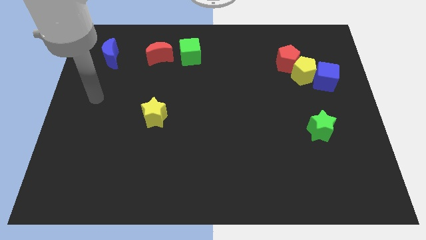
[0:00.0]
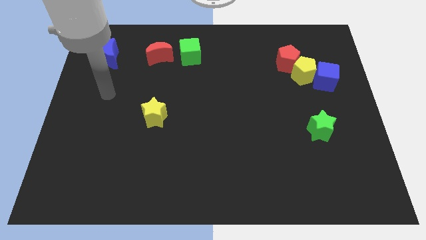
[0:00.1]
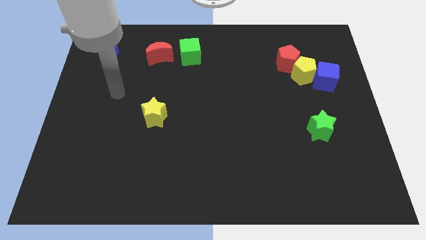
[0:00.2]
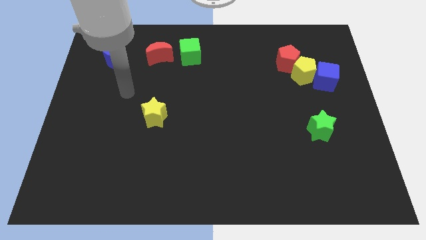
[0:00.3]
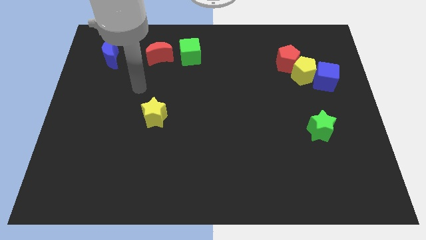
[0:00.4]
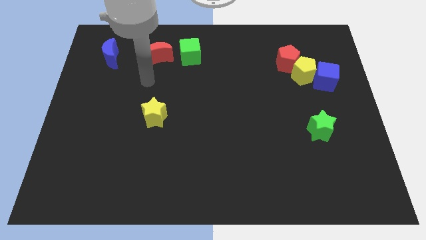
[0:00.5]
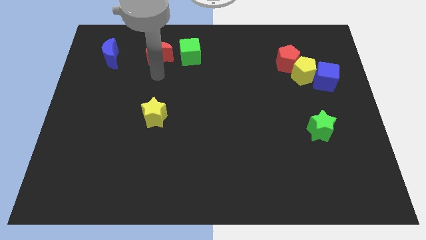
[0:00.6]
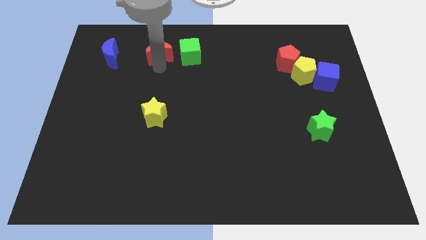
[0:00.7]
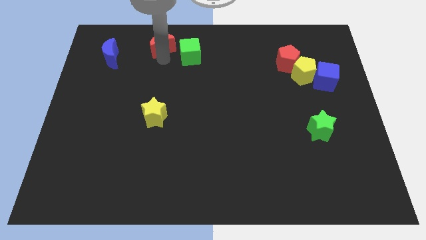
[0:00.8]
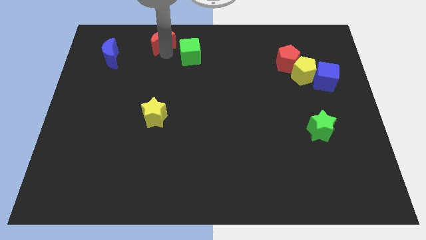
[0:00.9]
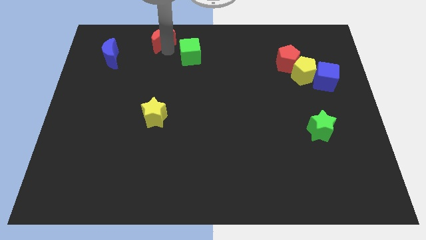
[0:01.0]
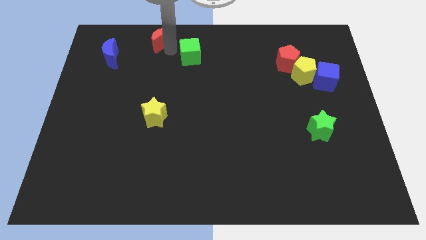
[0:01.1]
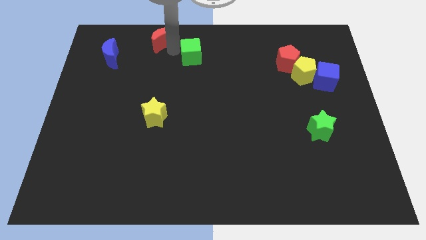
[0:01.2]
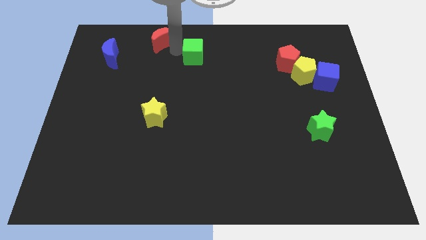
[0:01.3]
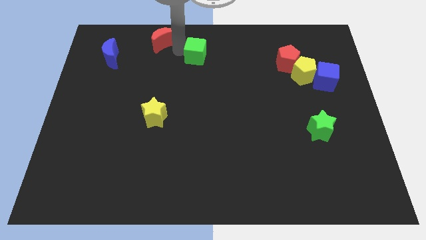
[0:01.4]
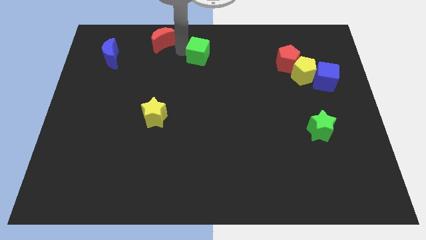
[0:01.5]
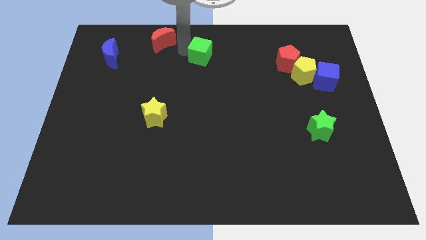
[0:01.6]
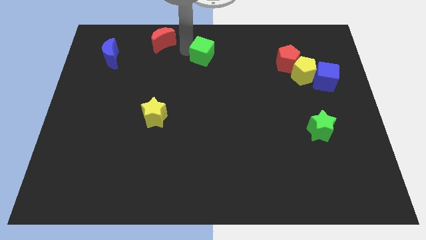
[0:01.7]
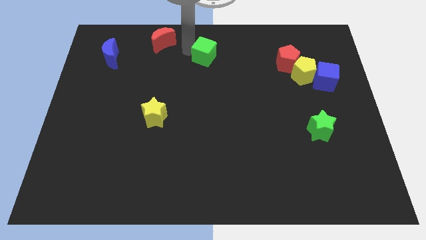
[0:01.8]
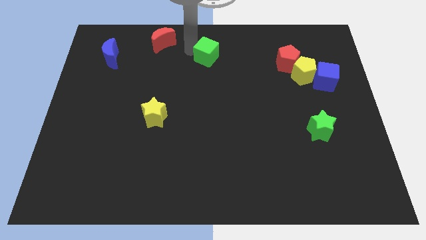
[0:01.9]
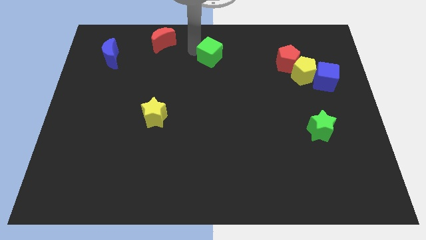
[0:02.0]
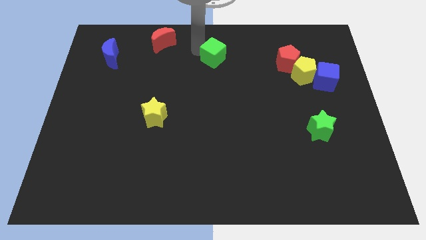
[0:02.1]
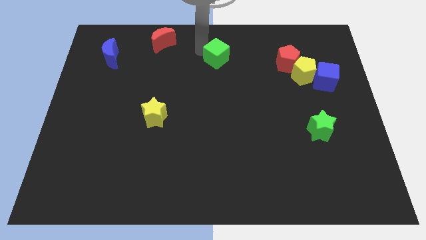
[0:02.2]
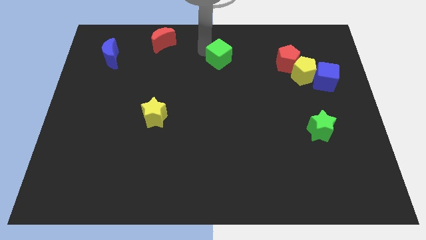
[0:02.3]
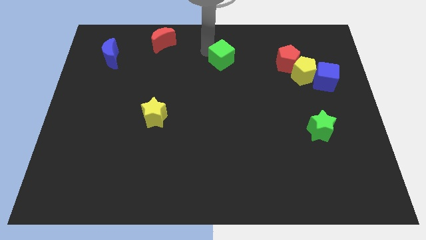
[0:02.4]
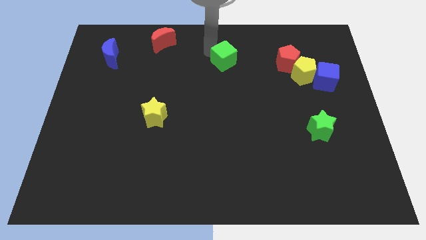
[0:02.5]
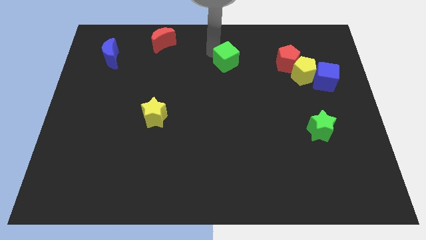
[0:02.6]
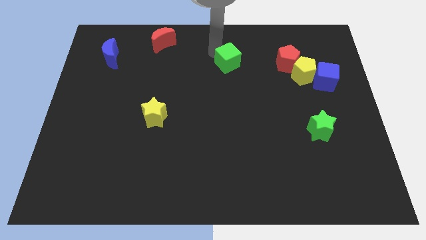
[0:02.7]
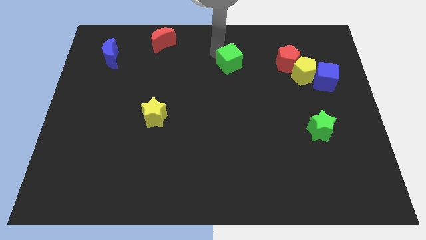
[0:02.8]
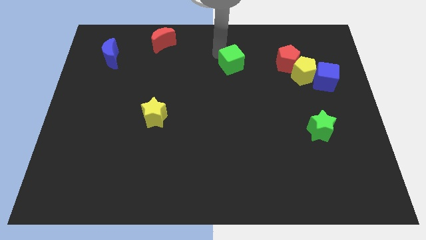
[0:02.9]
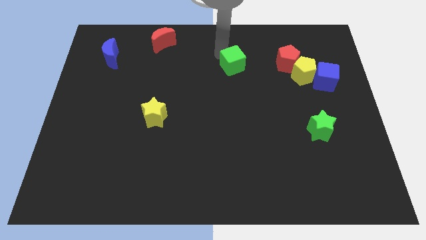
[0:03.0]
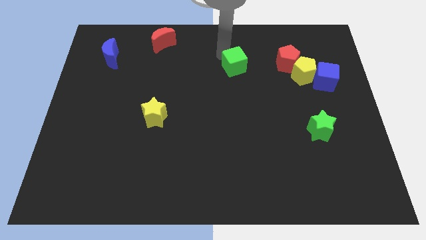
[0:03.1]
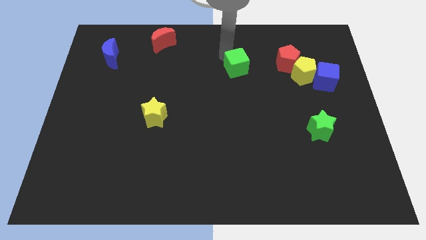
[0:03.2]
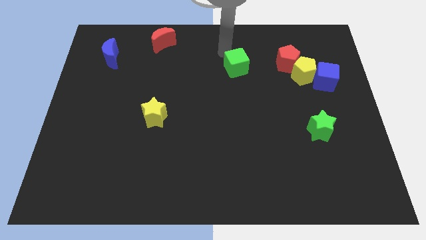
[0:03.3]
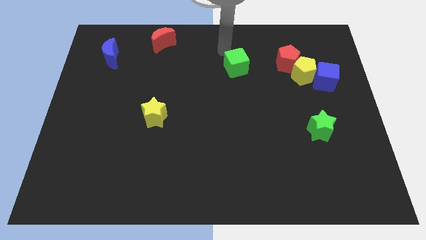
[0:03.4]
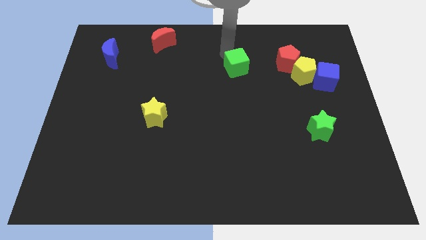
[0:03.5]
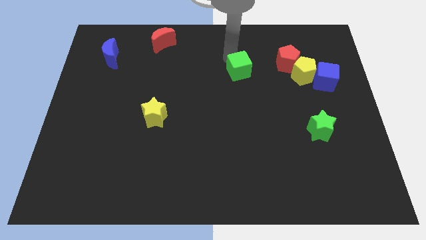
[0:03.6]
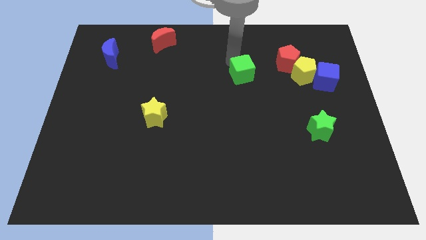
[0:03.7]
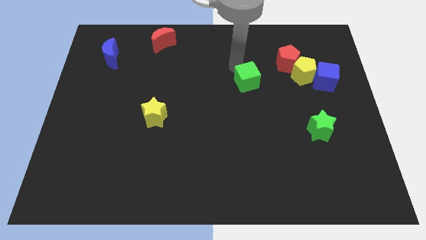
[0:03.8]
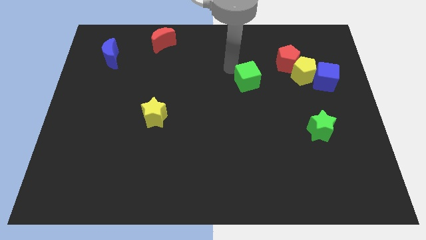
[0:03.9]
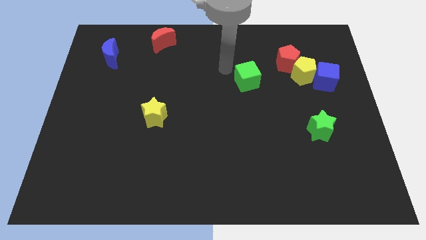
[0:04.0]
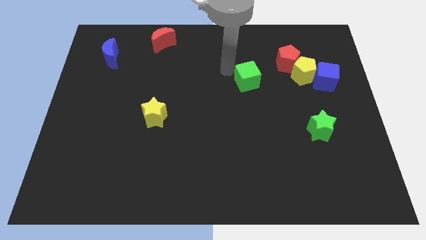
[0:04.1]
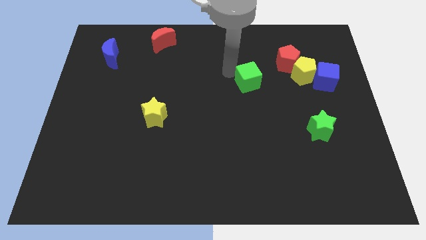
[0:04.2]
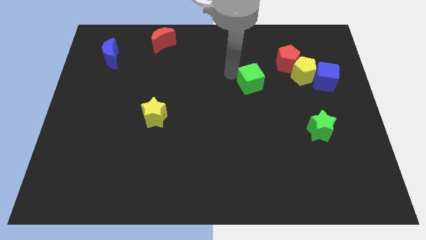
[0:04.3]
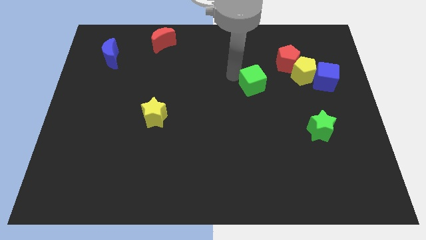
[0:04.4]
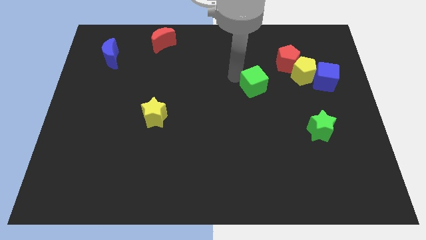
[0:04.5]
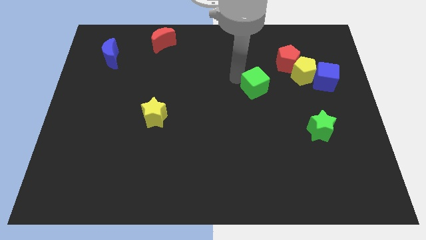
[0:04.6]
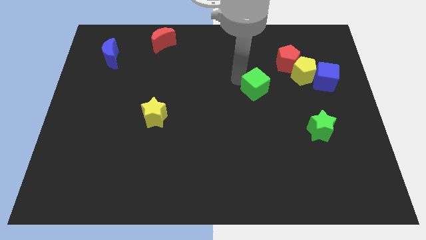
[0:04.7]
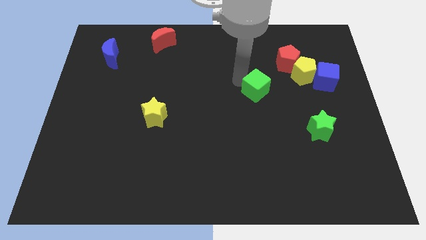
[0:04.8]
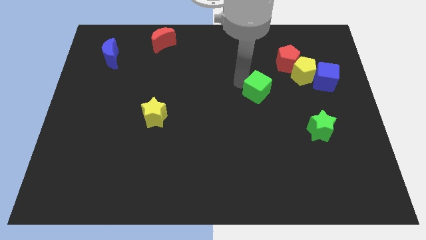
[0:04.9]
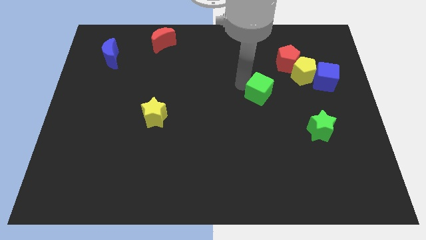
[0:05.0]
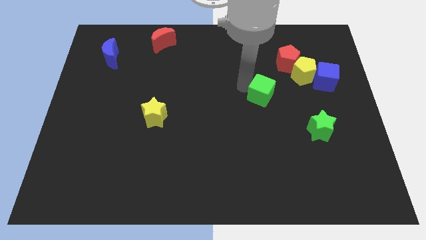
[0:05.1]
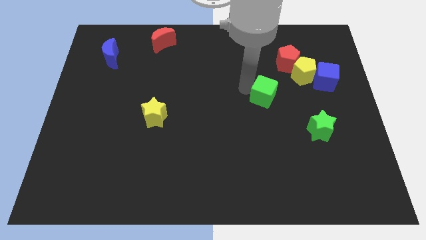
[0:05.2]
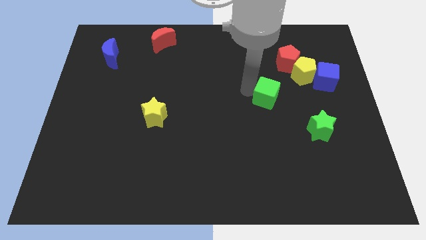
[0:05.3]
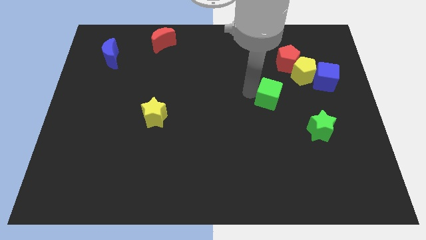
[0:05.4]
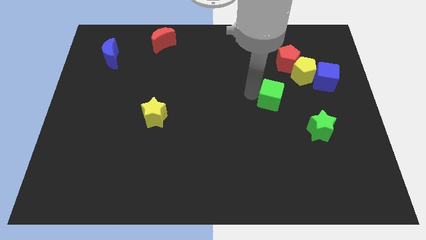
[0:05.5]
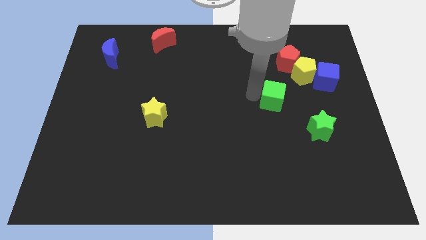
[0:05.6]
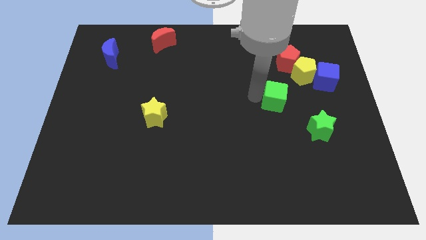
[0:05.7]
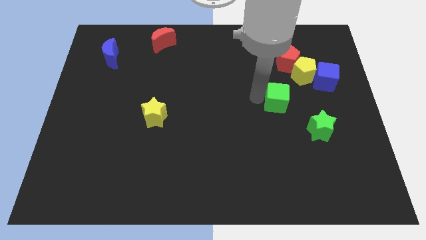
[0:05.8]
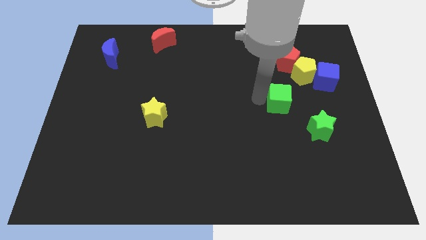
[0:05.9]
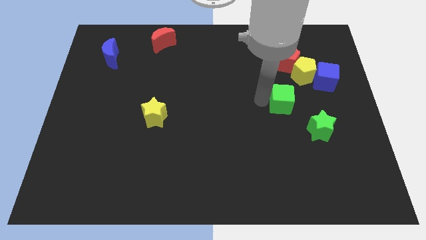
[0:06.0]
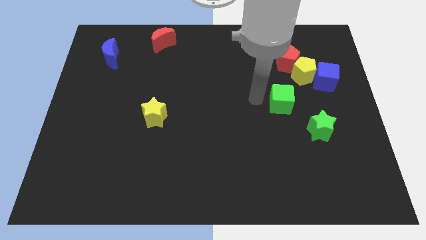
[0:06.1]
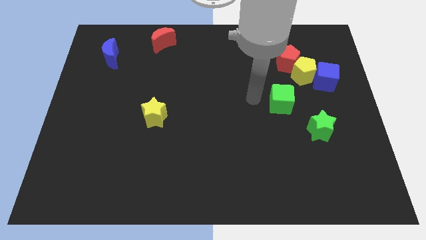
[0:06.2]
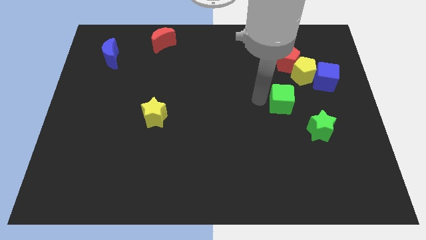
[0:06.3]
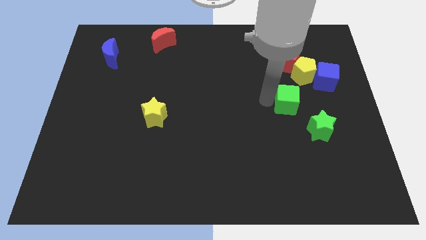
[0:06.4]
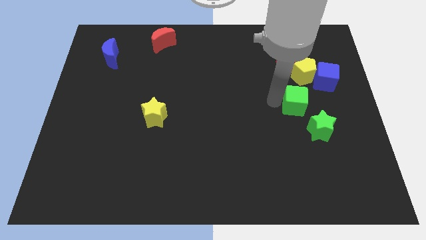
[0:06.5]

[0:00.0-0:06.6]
move the green cube below the yellow pentagon
